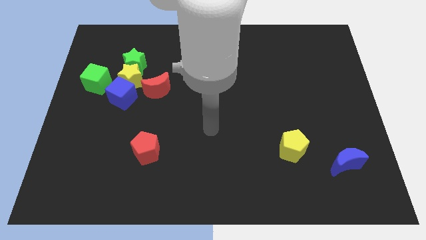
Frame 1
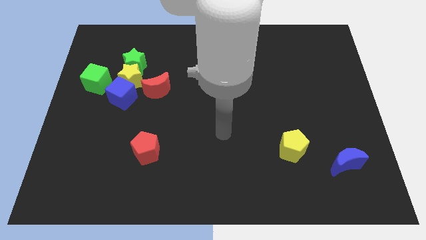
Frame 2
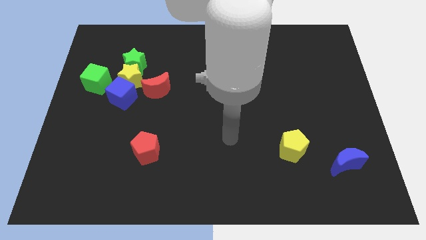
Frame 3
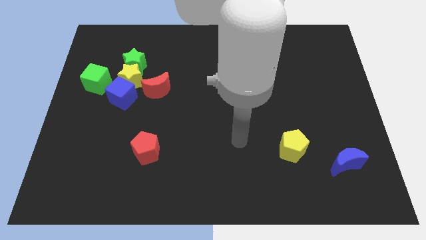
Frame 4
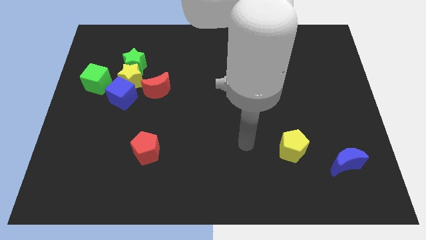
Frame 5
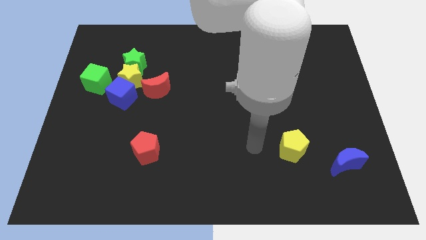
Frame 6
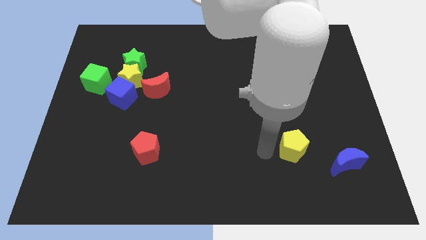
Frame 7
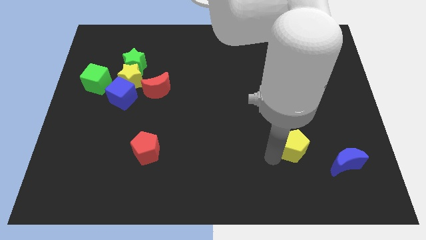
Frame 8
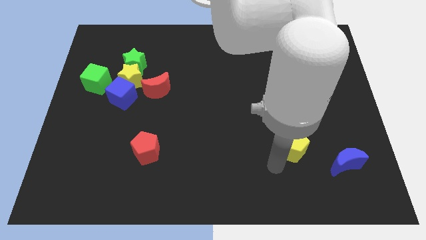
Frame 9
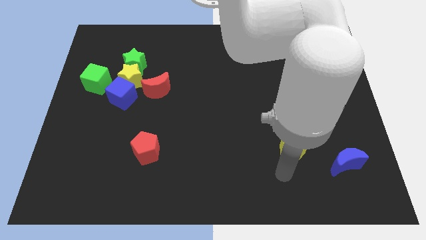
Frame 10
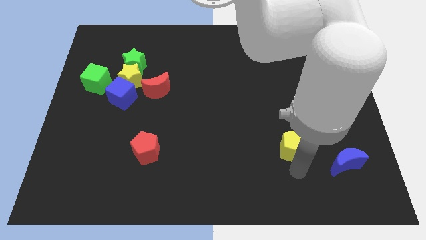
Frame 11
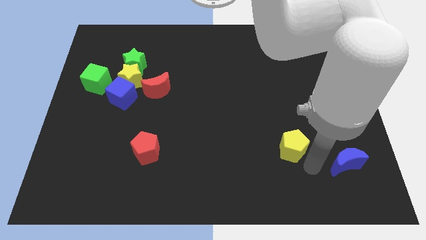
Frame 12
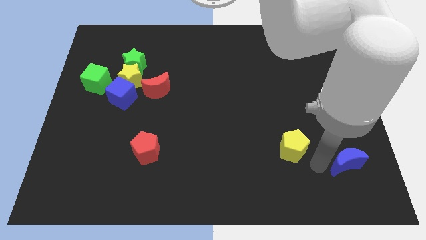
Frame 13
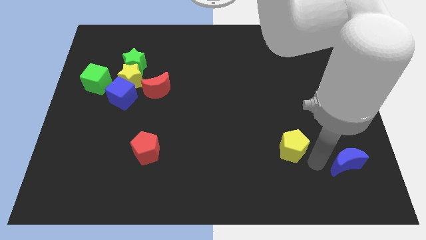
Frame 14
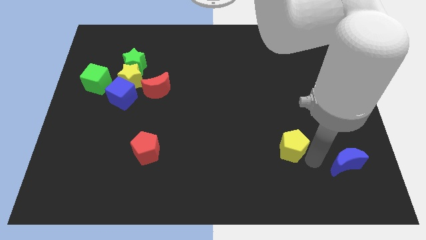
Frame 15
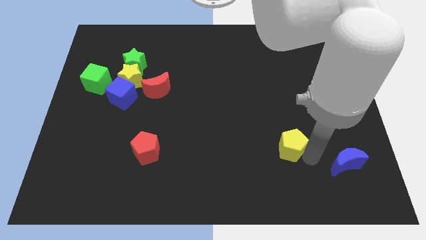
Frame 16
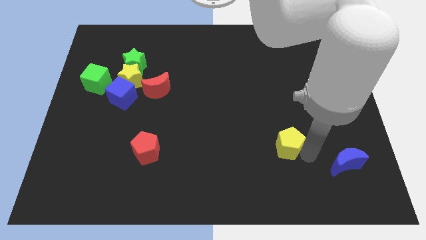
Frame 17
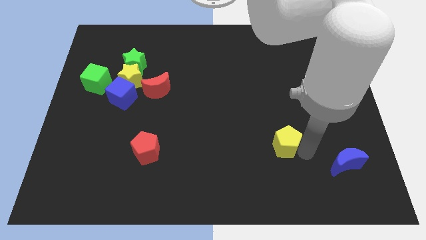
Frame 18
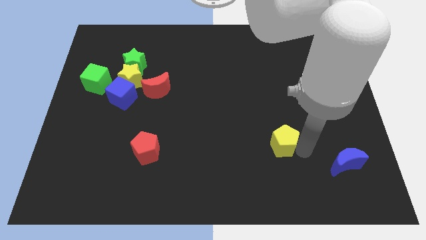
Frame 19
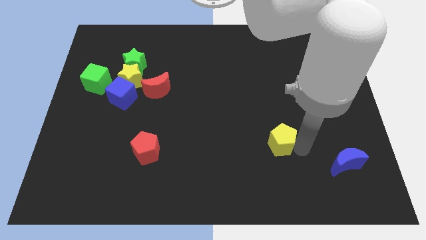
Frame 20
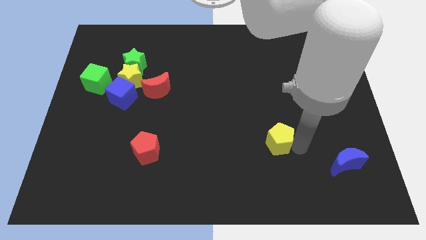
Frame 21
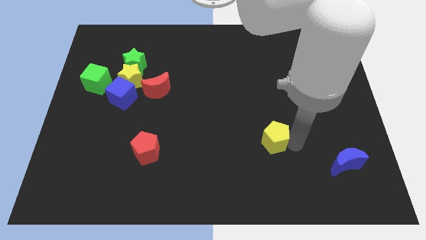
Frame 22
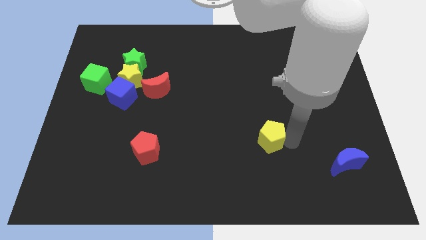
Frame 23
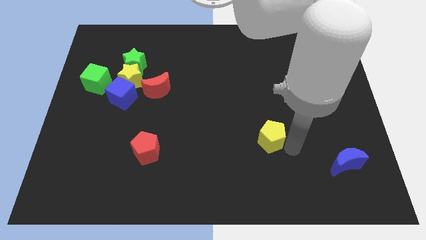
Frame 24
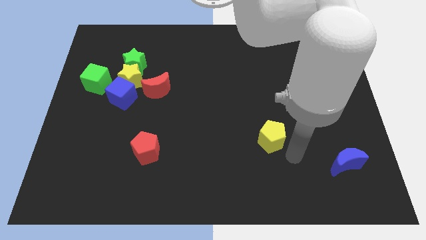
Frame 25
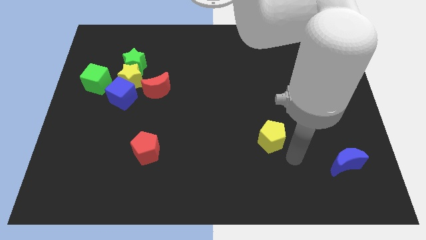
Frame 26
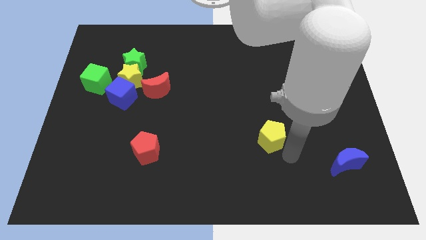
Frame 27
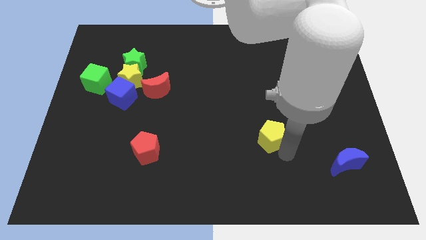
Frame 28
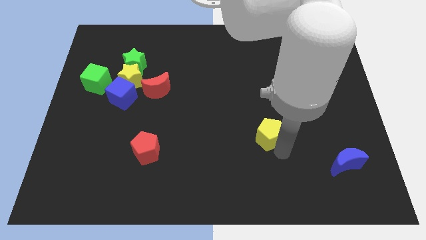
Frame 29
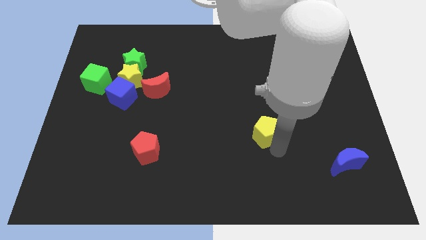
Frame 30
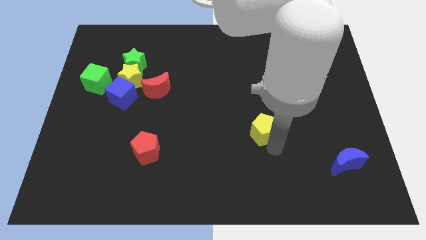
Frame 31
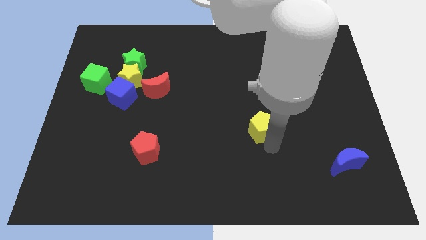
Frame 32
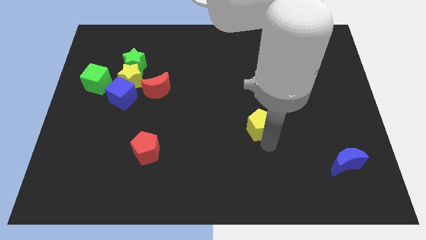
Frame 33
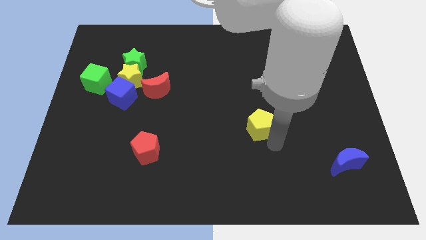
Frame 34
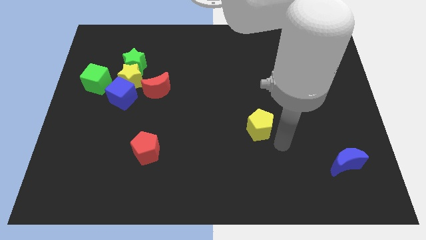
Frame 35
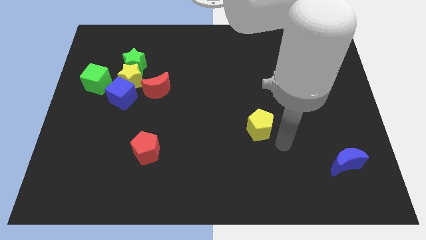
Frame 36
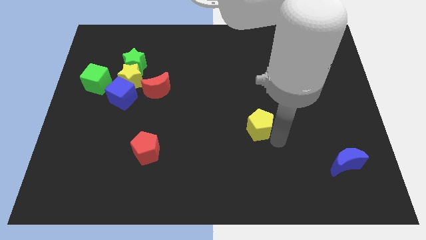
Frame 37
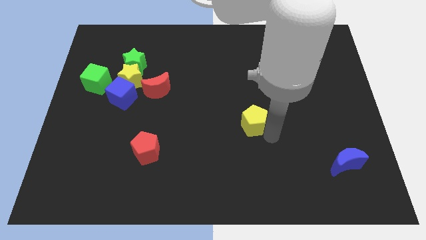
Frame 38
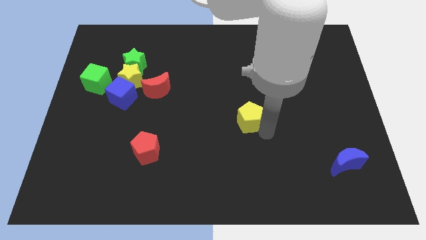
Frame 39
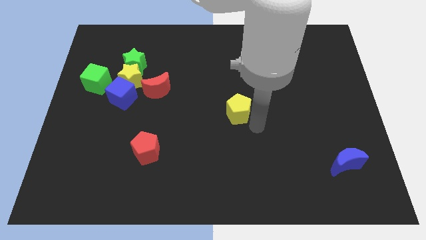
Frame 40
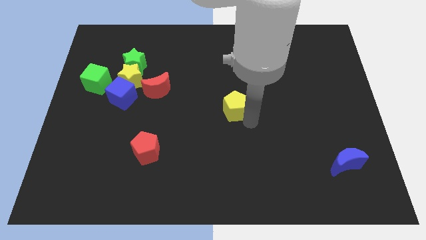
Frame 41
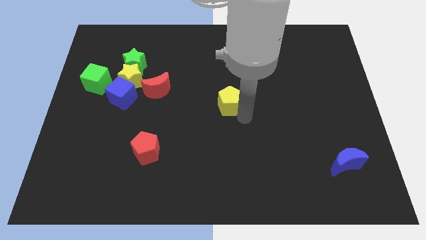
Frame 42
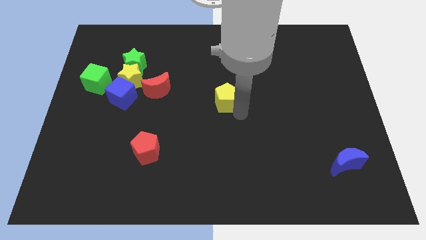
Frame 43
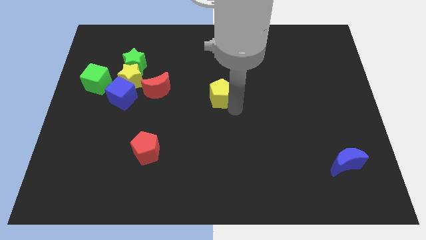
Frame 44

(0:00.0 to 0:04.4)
push the yellow pentagon diagonally upwards and to the left

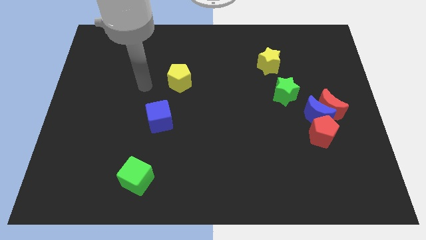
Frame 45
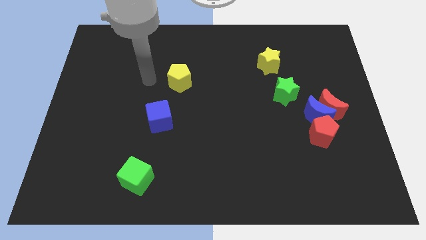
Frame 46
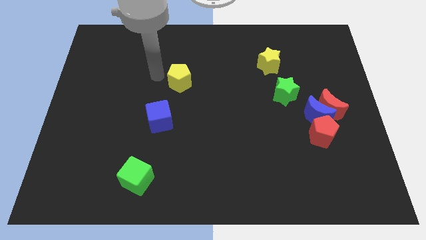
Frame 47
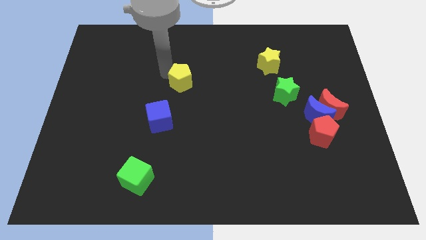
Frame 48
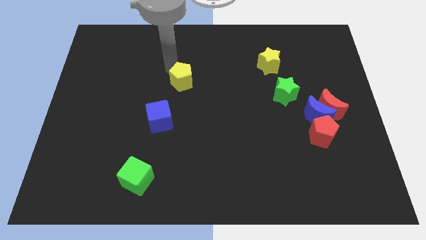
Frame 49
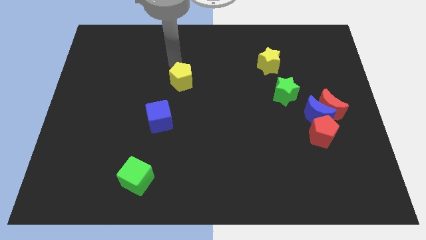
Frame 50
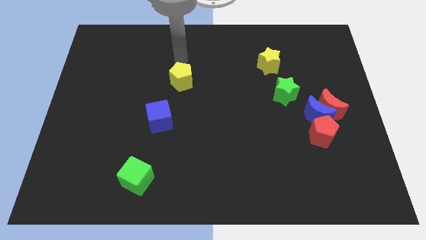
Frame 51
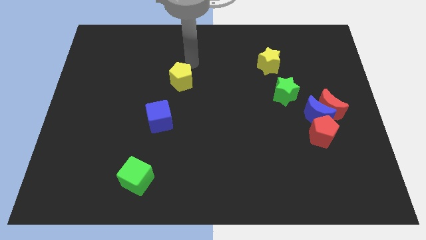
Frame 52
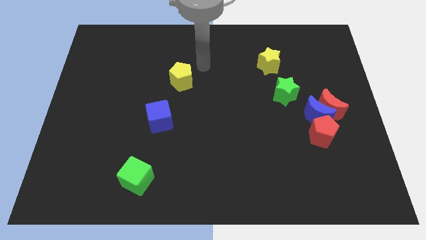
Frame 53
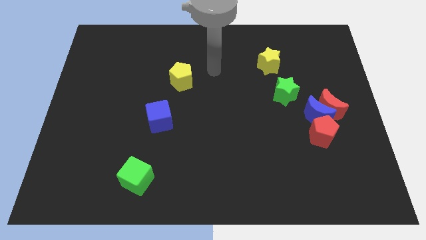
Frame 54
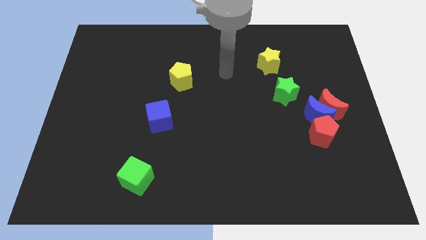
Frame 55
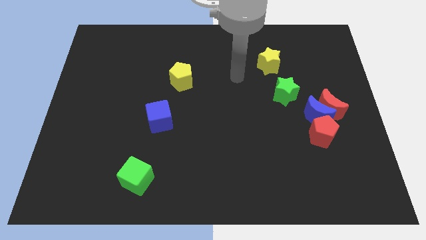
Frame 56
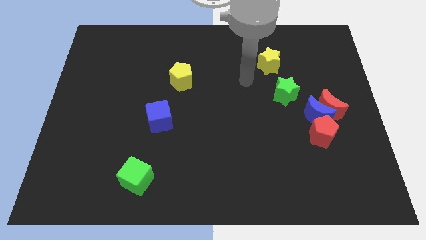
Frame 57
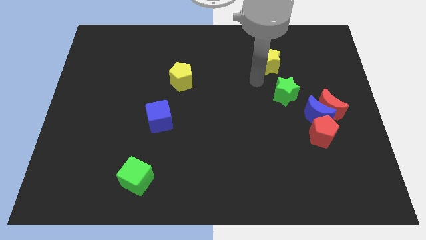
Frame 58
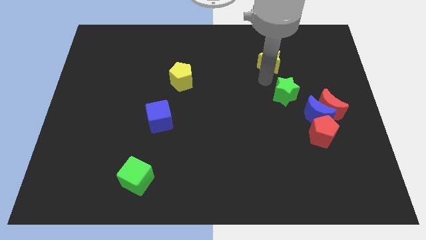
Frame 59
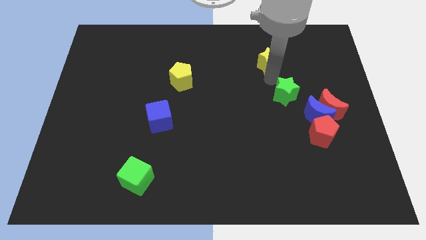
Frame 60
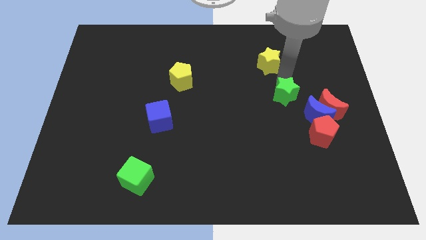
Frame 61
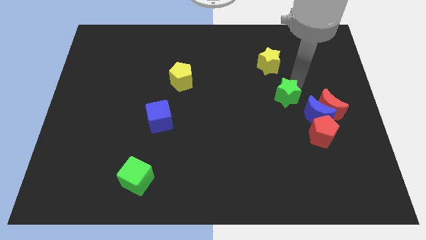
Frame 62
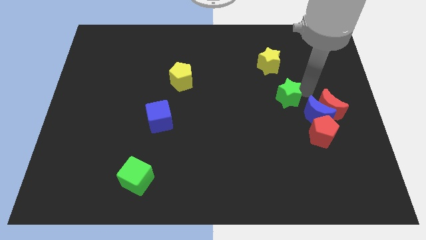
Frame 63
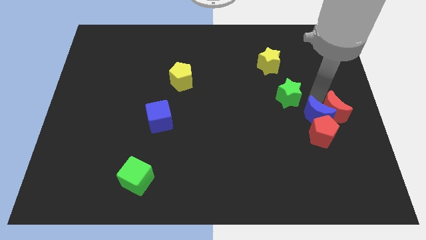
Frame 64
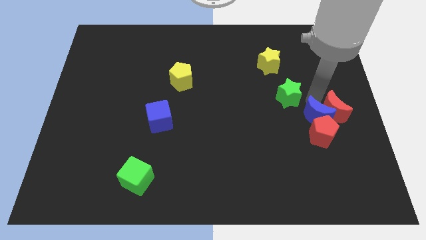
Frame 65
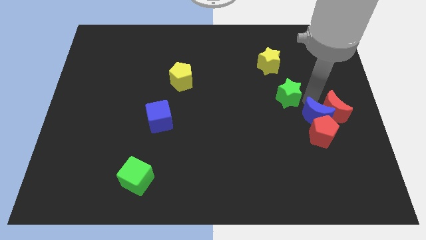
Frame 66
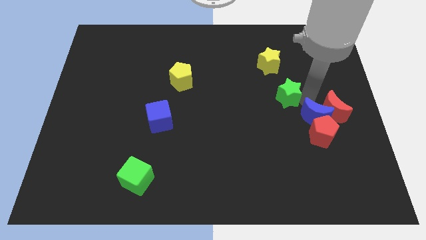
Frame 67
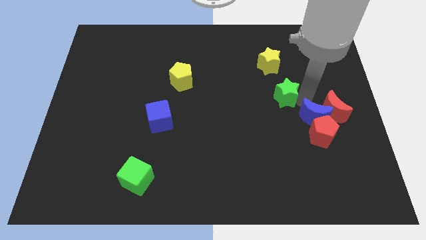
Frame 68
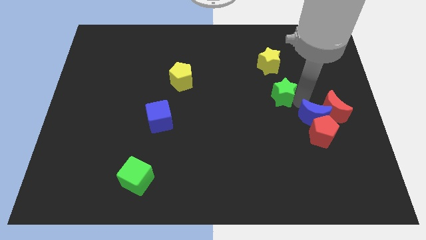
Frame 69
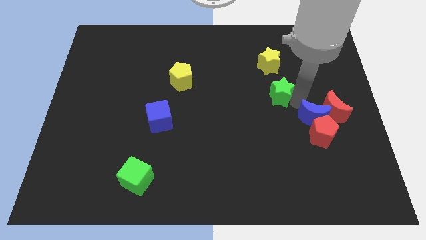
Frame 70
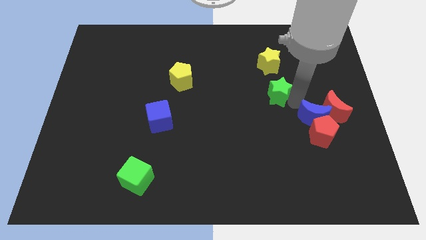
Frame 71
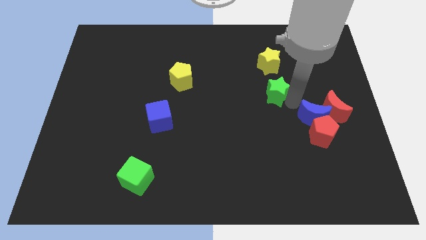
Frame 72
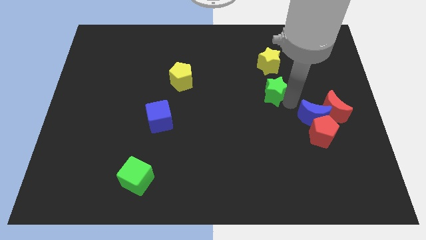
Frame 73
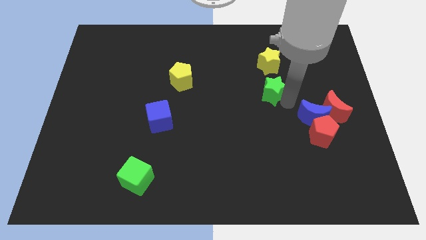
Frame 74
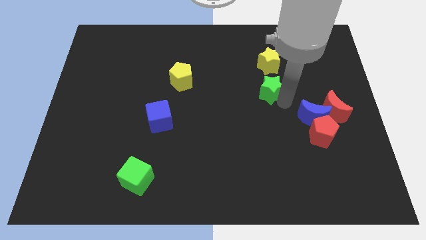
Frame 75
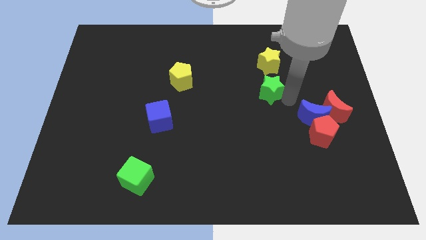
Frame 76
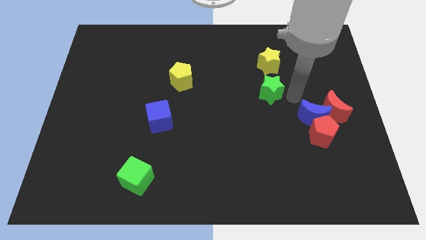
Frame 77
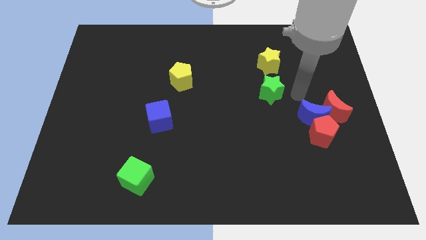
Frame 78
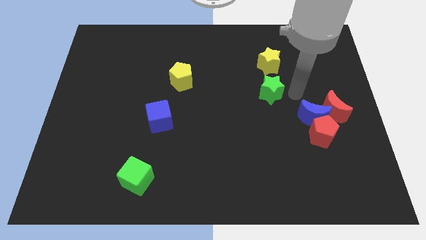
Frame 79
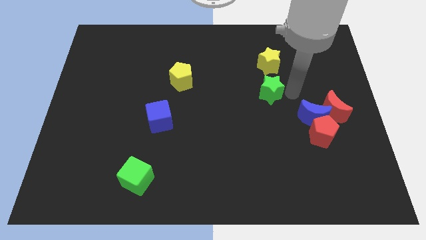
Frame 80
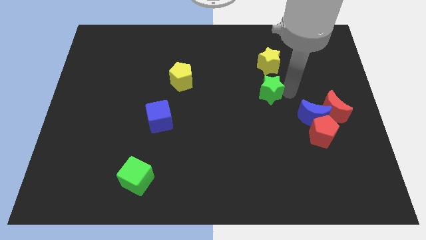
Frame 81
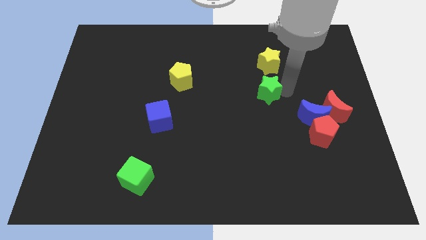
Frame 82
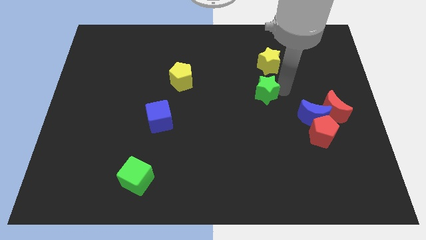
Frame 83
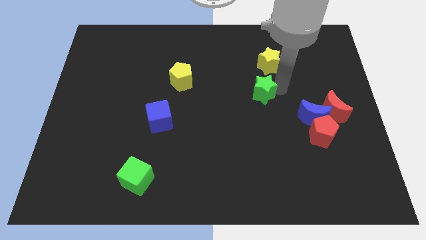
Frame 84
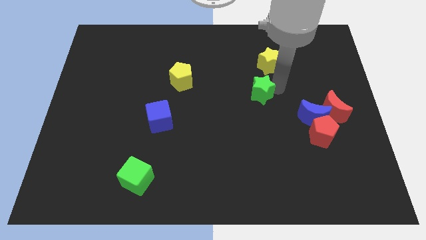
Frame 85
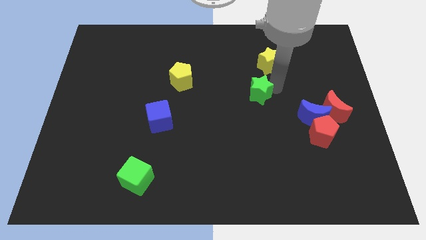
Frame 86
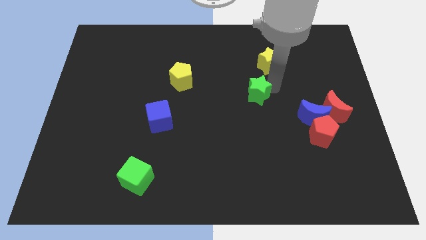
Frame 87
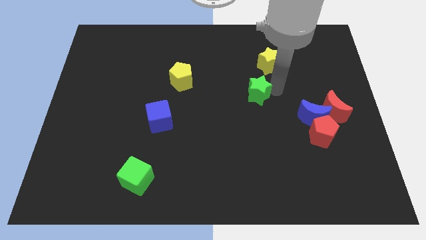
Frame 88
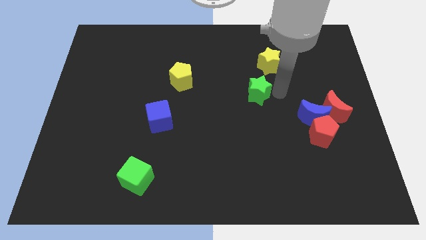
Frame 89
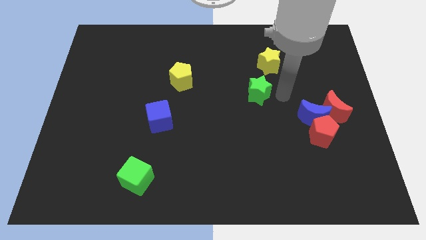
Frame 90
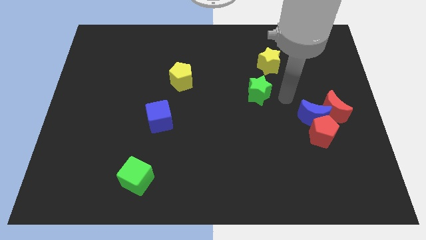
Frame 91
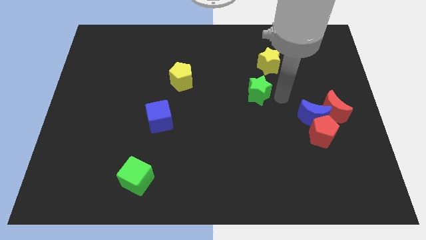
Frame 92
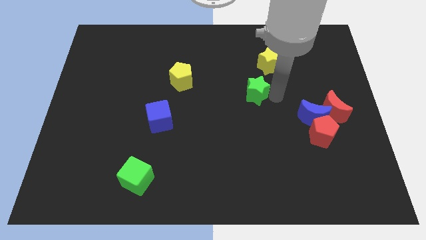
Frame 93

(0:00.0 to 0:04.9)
push the green star to the left slightly
